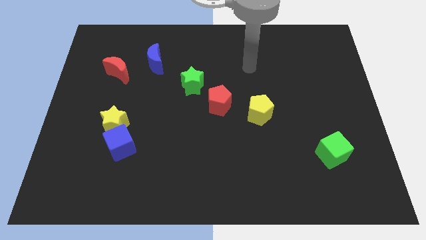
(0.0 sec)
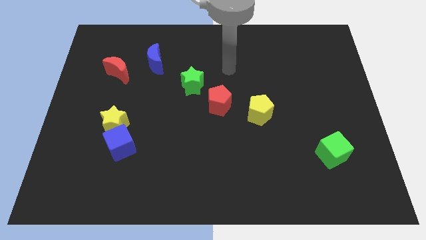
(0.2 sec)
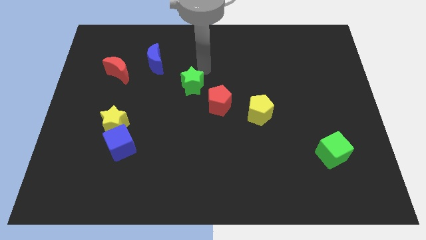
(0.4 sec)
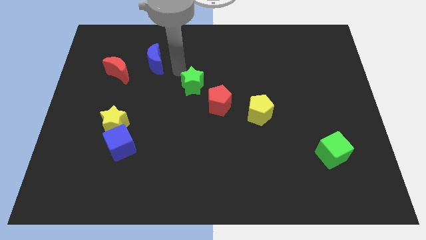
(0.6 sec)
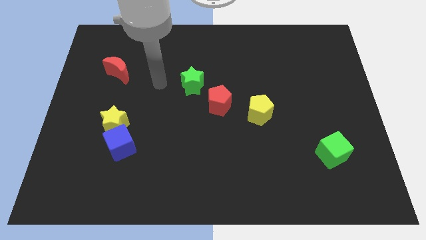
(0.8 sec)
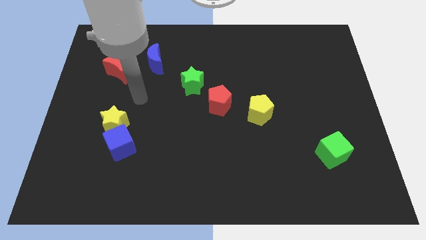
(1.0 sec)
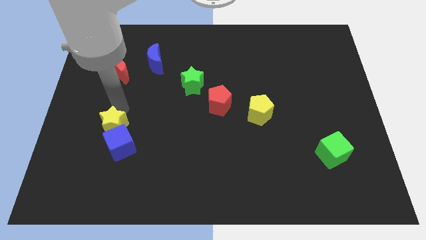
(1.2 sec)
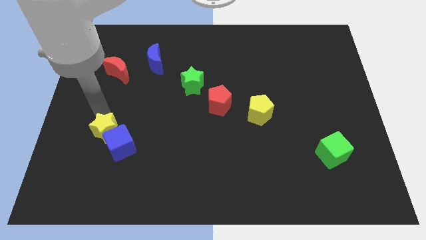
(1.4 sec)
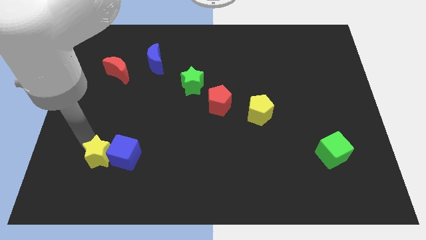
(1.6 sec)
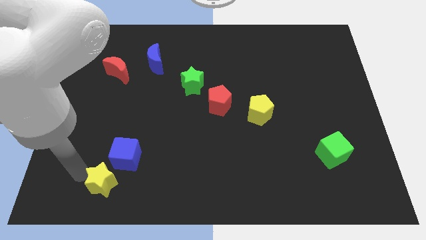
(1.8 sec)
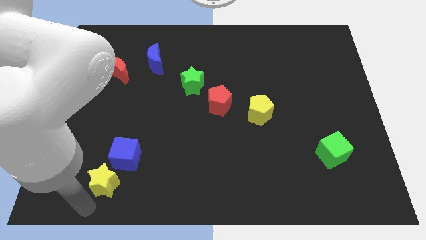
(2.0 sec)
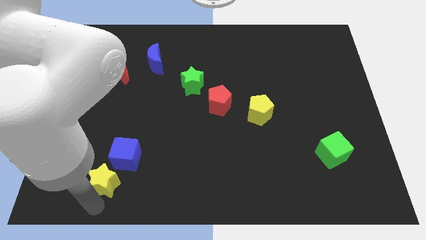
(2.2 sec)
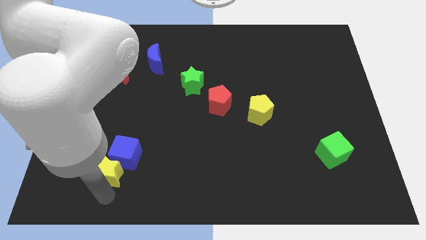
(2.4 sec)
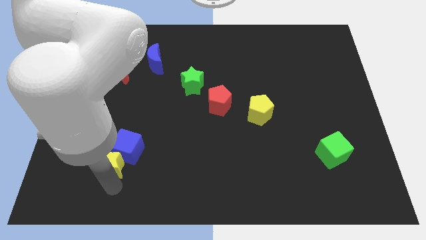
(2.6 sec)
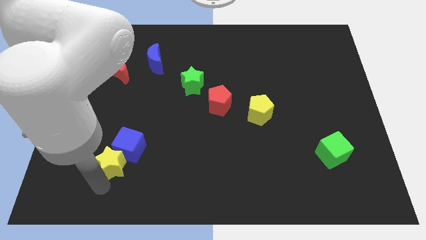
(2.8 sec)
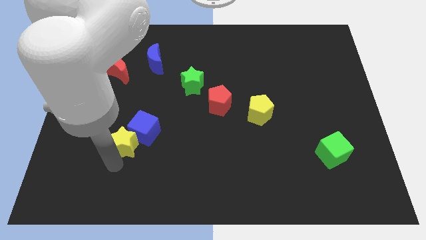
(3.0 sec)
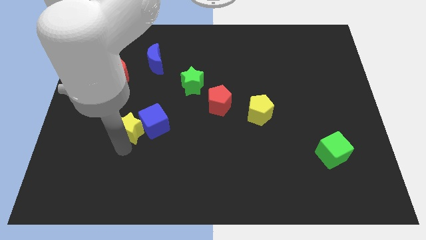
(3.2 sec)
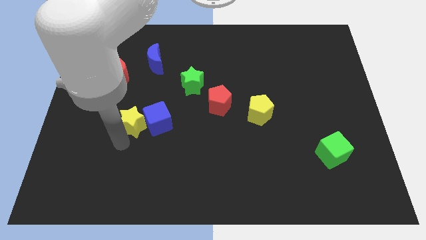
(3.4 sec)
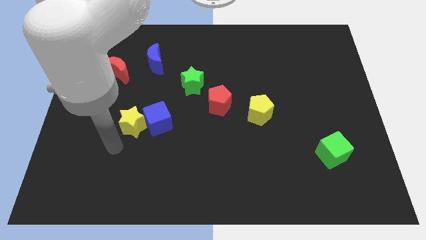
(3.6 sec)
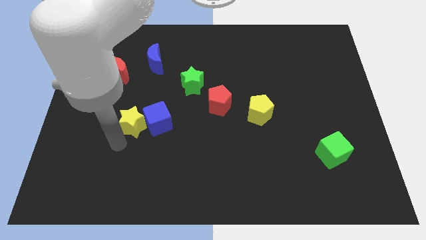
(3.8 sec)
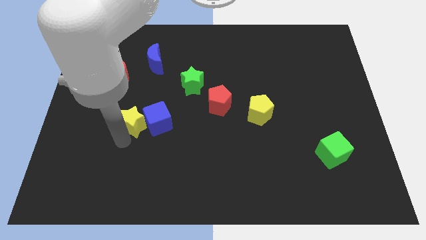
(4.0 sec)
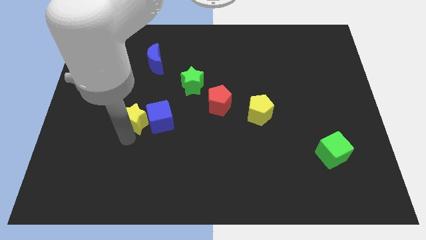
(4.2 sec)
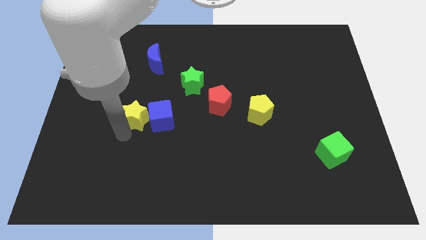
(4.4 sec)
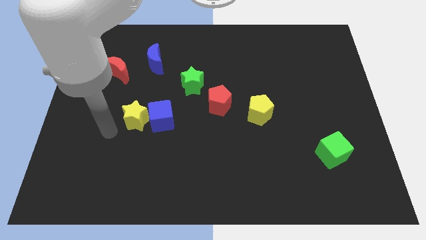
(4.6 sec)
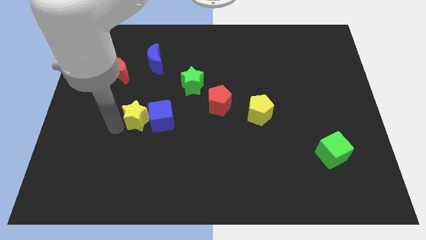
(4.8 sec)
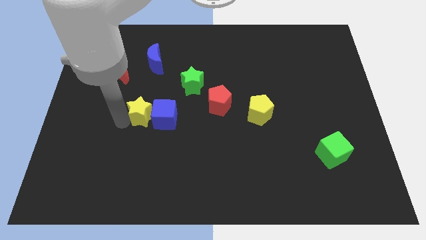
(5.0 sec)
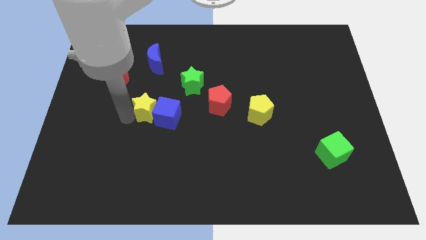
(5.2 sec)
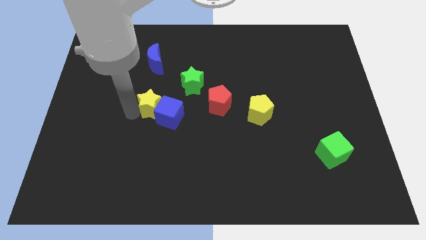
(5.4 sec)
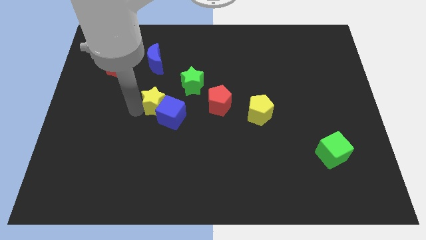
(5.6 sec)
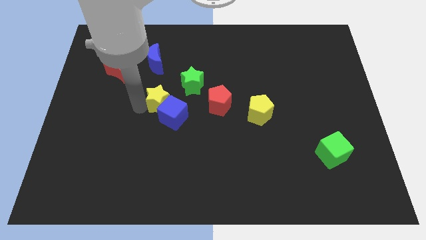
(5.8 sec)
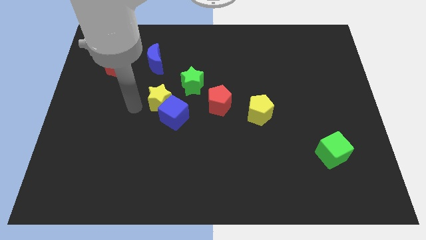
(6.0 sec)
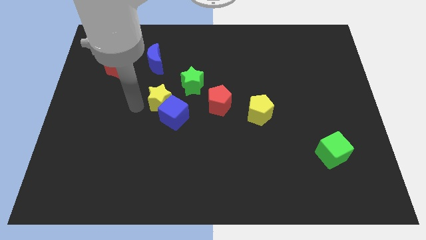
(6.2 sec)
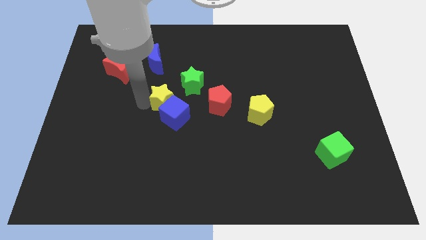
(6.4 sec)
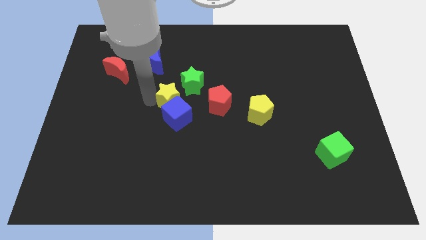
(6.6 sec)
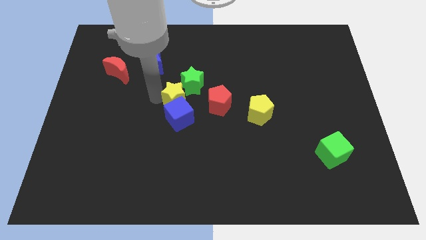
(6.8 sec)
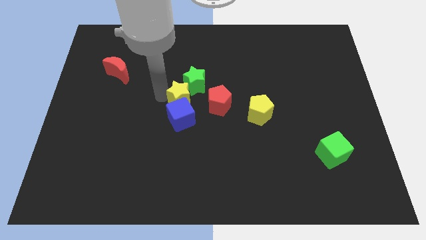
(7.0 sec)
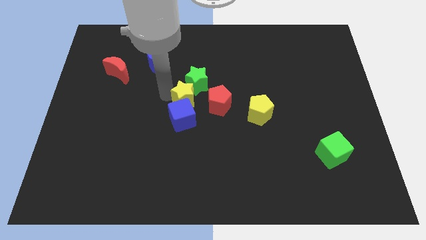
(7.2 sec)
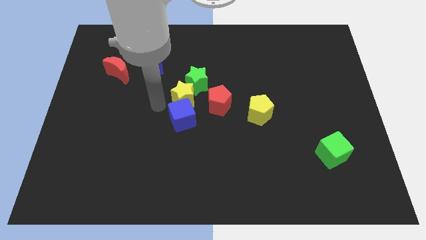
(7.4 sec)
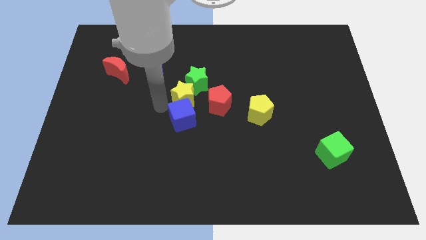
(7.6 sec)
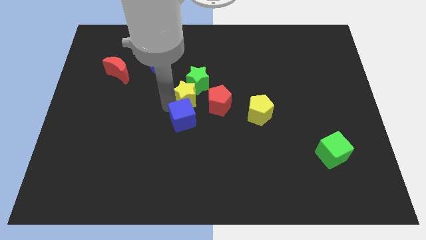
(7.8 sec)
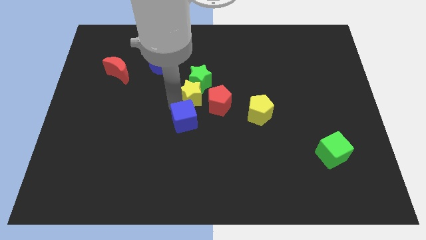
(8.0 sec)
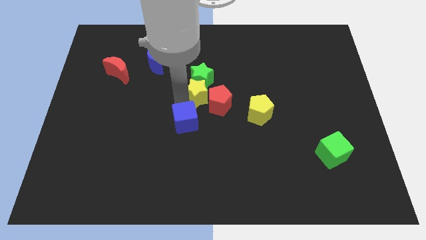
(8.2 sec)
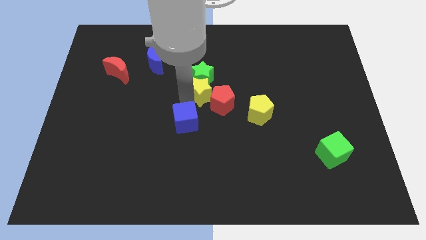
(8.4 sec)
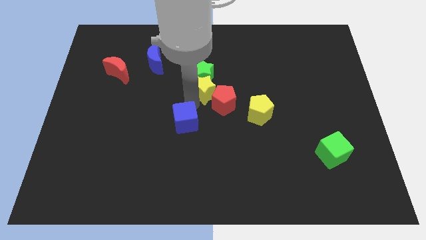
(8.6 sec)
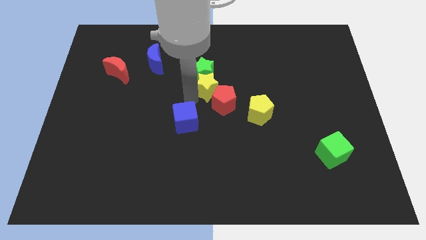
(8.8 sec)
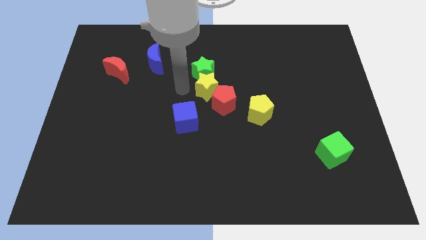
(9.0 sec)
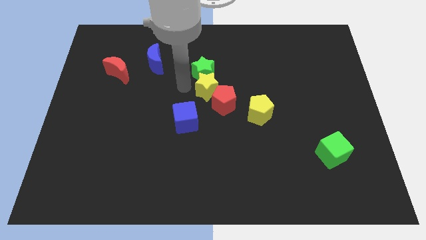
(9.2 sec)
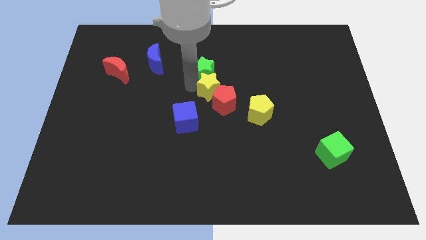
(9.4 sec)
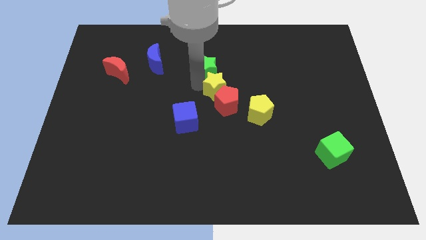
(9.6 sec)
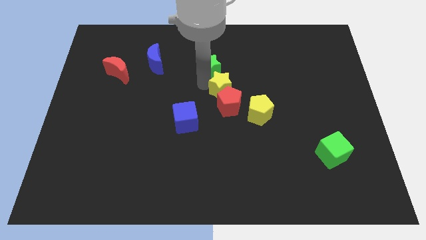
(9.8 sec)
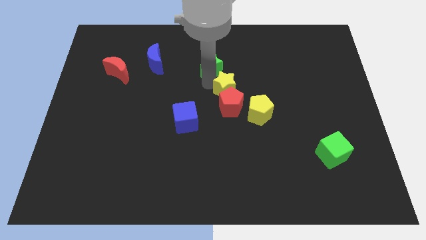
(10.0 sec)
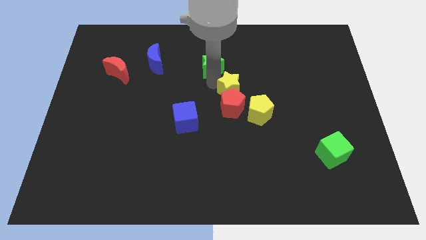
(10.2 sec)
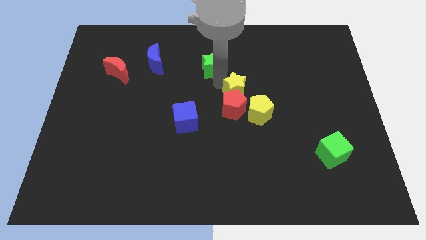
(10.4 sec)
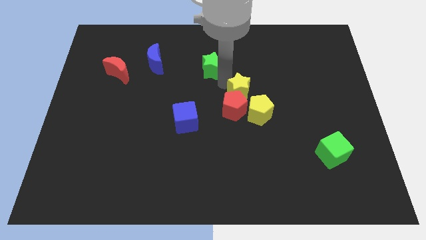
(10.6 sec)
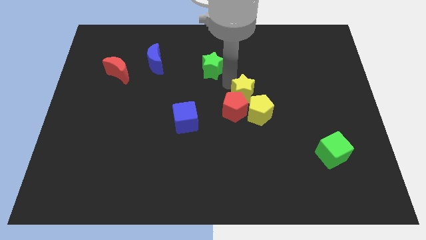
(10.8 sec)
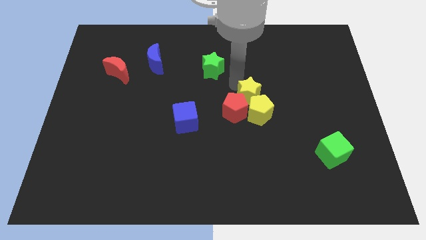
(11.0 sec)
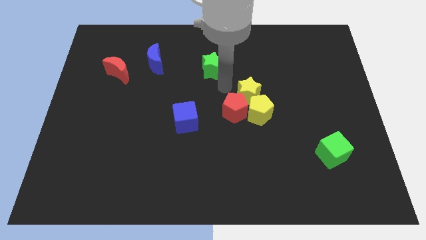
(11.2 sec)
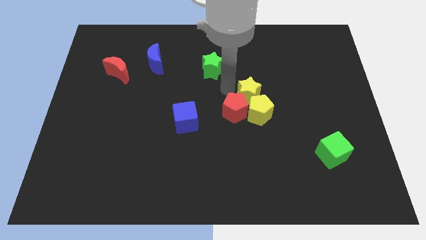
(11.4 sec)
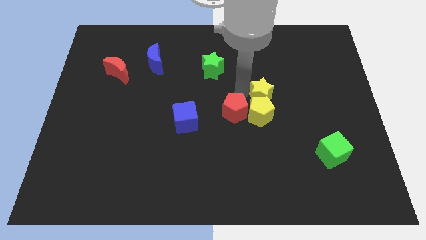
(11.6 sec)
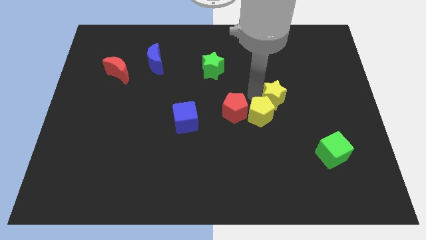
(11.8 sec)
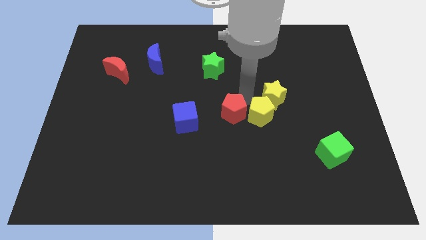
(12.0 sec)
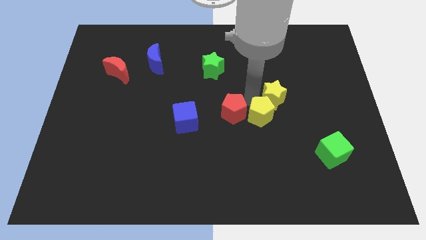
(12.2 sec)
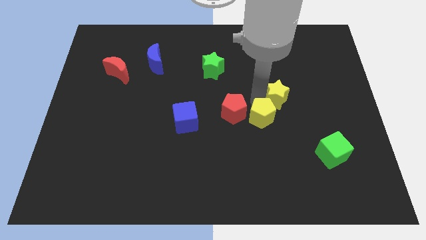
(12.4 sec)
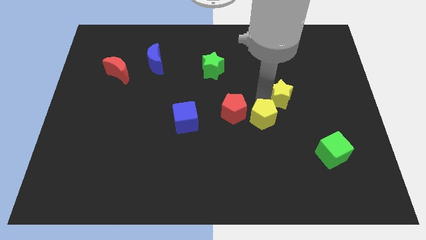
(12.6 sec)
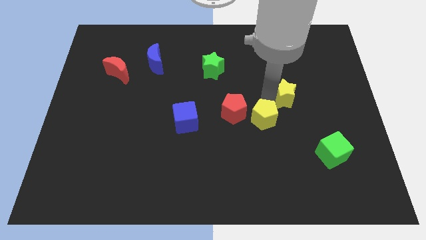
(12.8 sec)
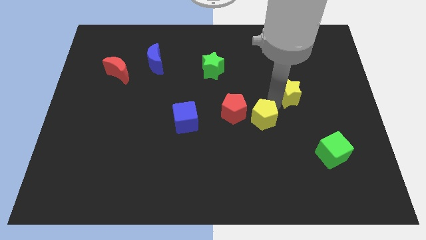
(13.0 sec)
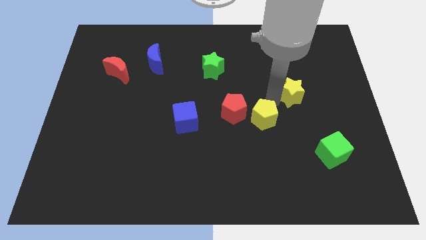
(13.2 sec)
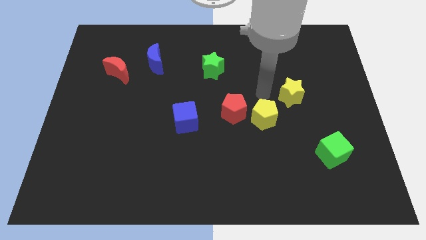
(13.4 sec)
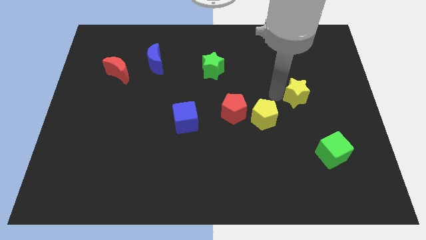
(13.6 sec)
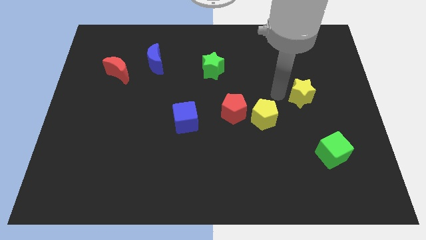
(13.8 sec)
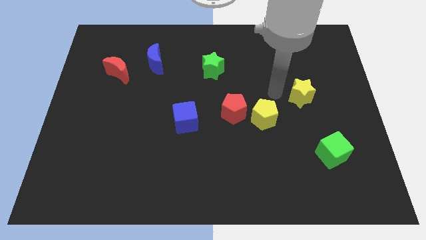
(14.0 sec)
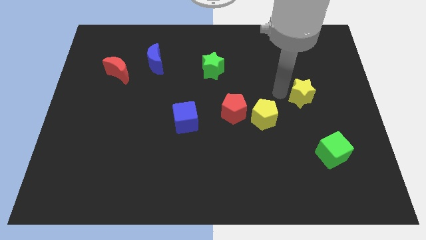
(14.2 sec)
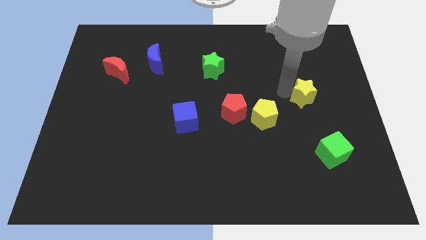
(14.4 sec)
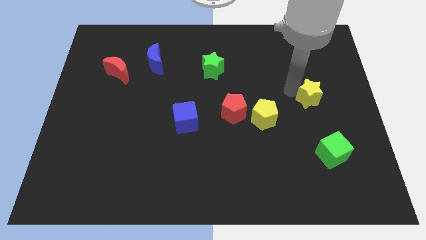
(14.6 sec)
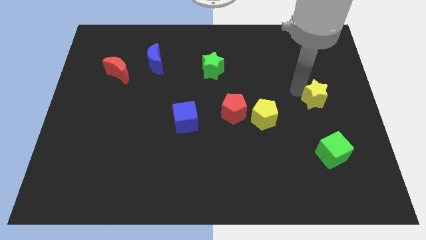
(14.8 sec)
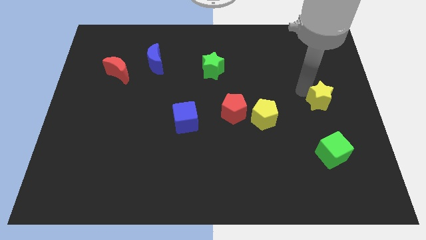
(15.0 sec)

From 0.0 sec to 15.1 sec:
put the yellow star to the center right
